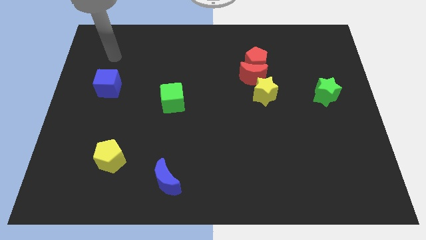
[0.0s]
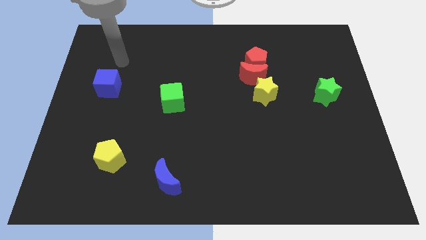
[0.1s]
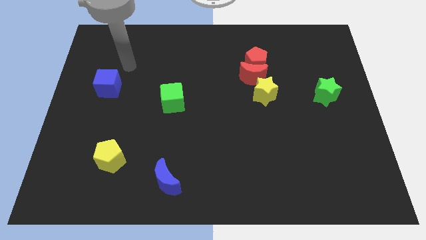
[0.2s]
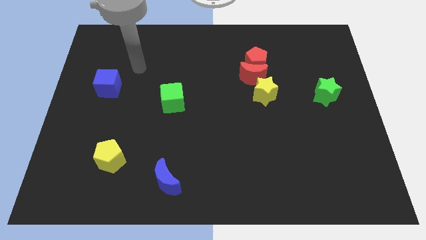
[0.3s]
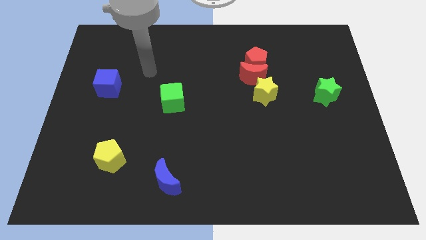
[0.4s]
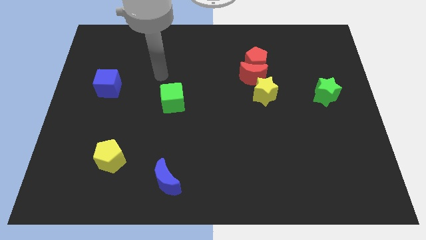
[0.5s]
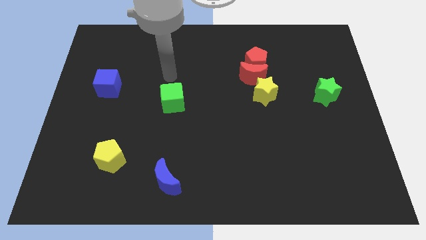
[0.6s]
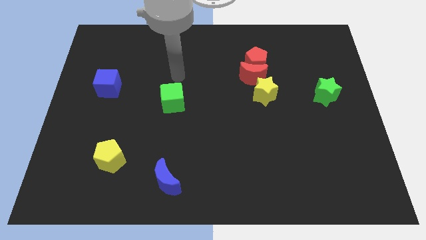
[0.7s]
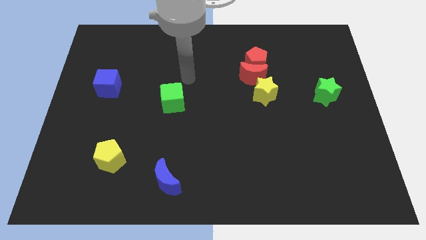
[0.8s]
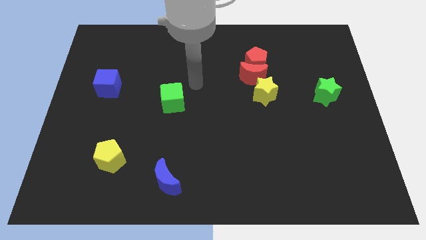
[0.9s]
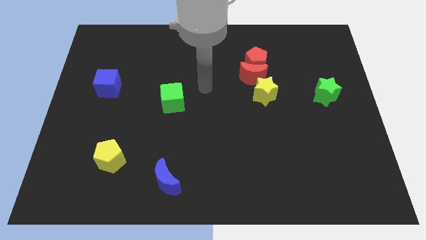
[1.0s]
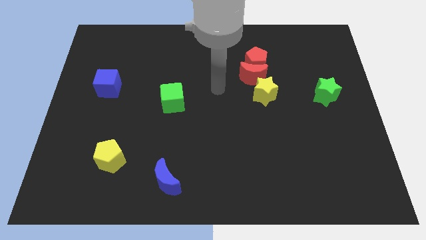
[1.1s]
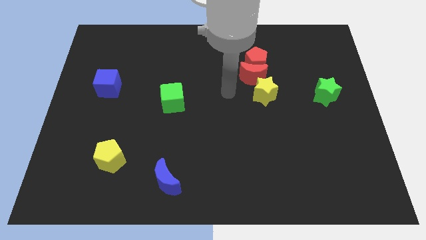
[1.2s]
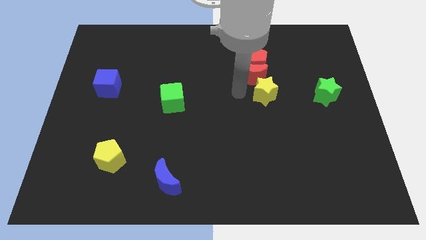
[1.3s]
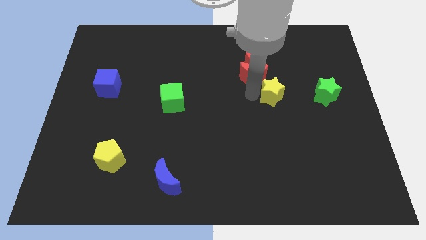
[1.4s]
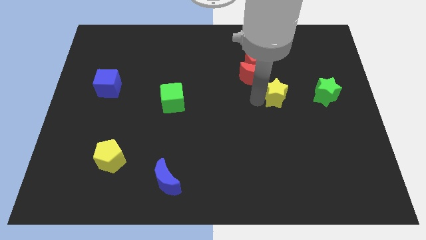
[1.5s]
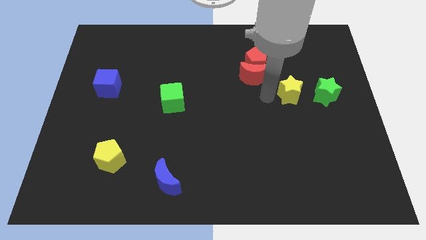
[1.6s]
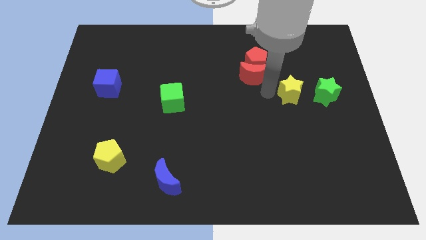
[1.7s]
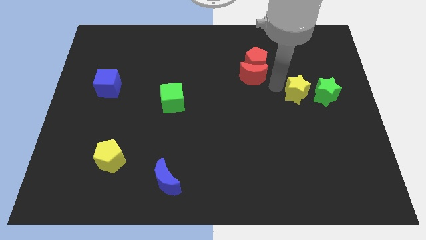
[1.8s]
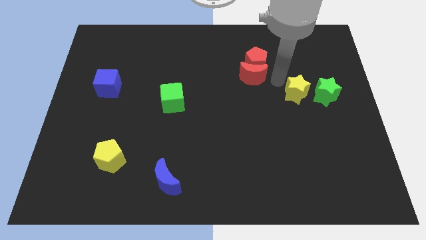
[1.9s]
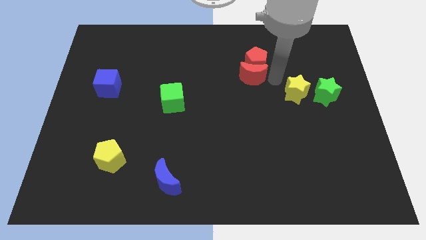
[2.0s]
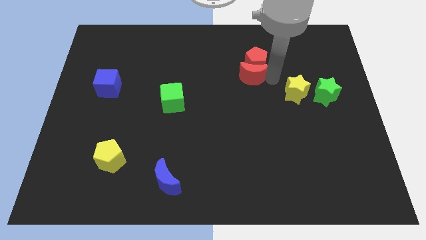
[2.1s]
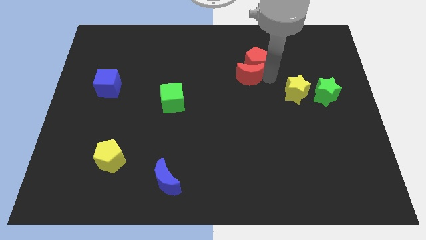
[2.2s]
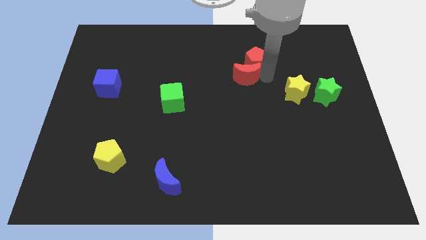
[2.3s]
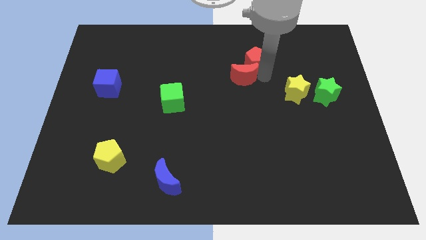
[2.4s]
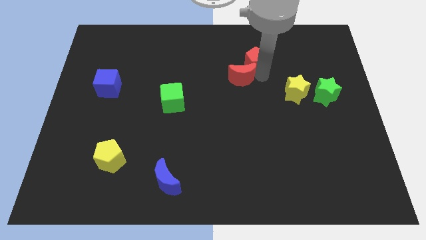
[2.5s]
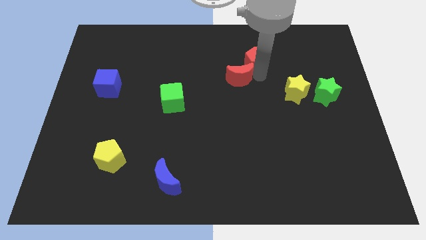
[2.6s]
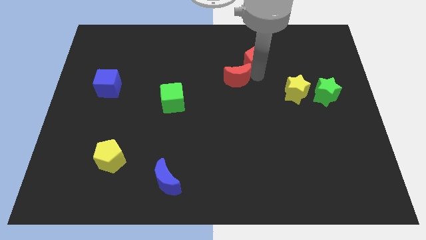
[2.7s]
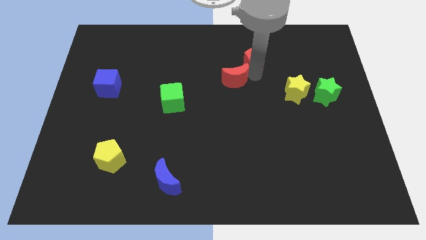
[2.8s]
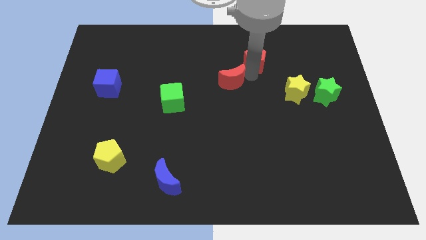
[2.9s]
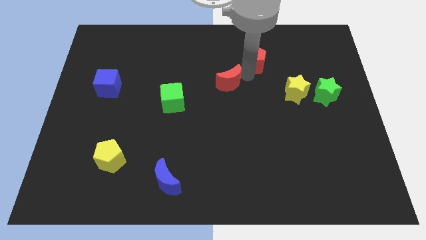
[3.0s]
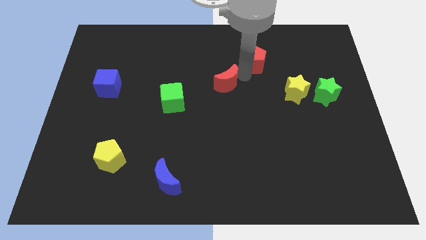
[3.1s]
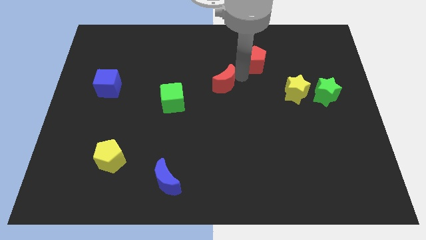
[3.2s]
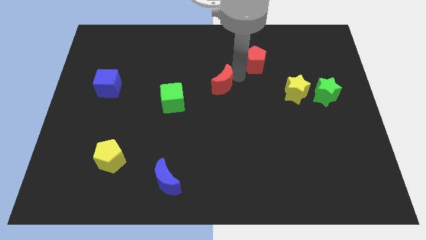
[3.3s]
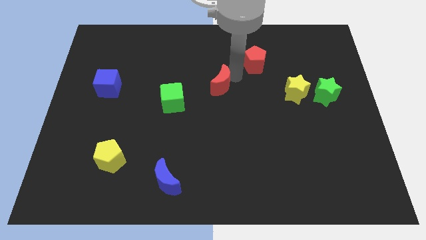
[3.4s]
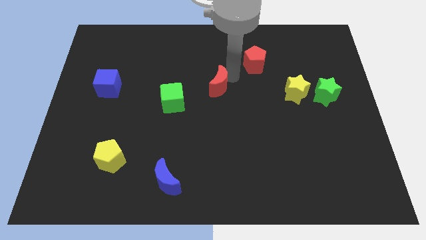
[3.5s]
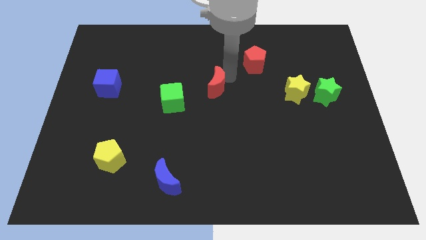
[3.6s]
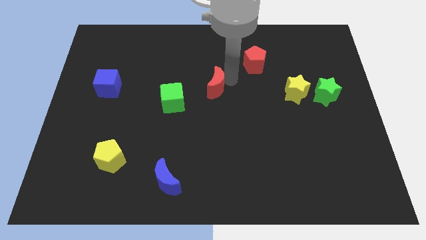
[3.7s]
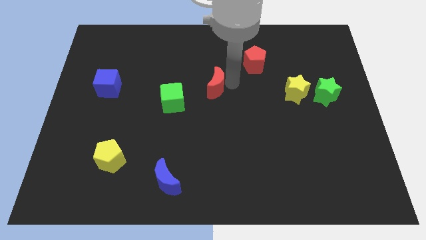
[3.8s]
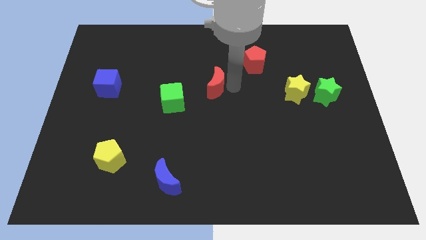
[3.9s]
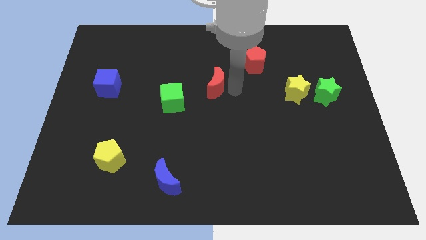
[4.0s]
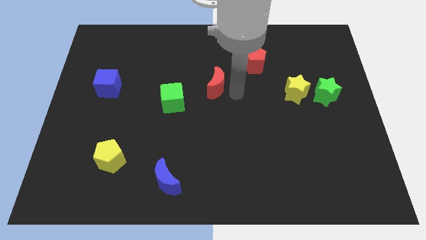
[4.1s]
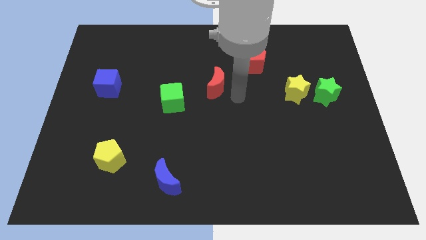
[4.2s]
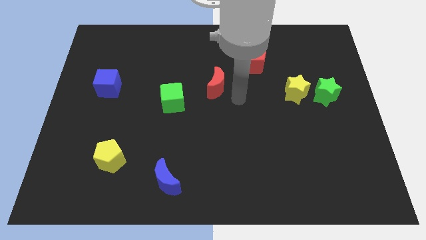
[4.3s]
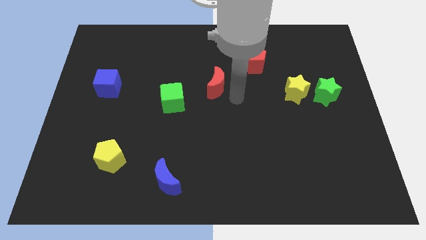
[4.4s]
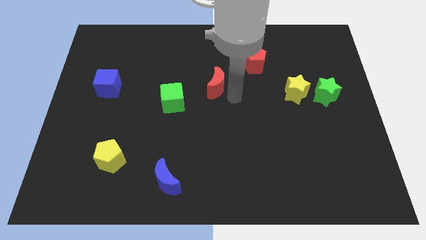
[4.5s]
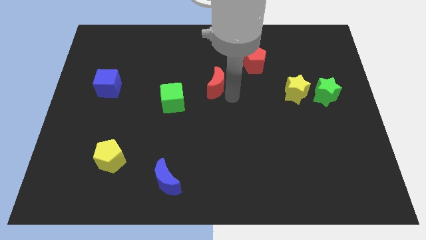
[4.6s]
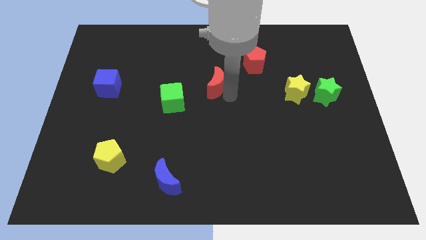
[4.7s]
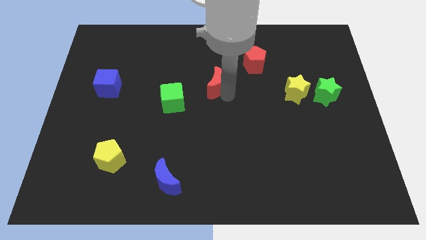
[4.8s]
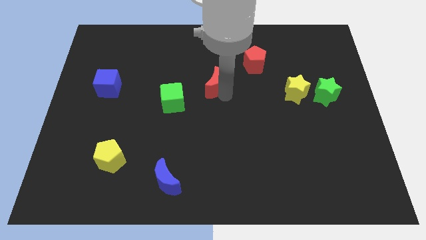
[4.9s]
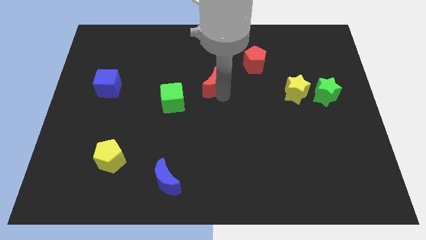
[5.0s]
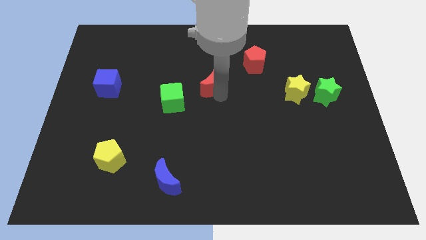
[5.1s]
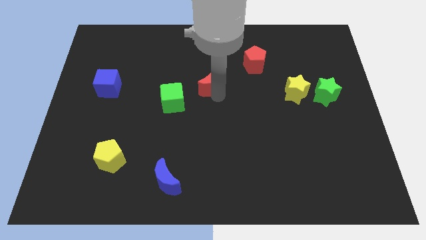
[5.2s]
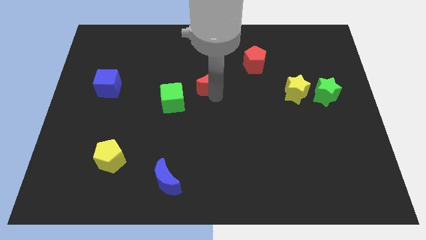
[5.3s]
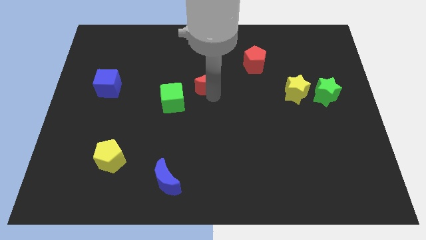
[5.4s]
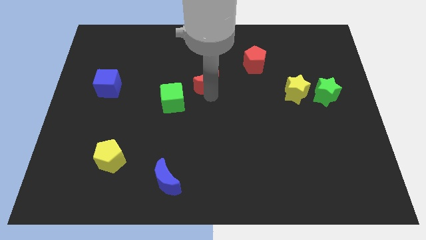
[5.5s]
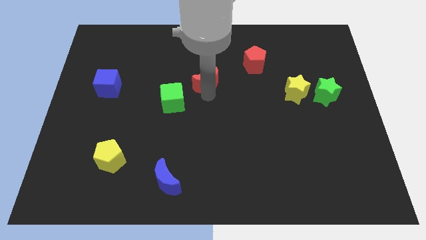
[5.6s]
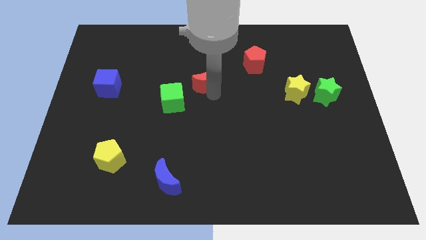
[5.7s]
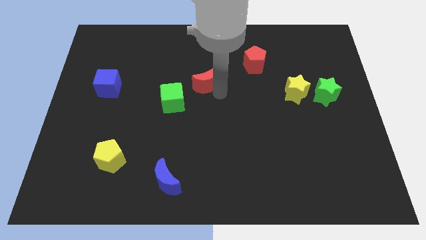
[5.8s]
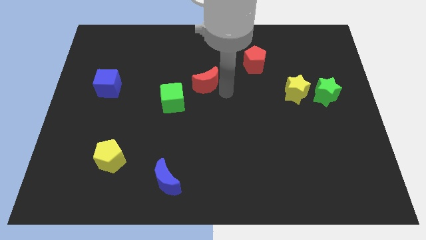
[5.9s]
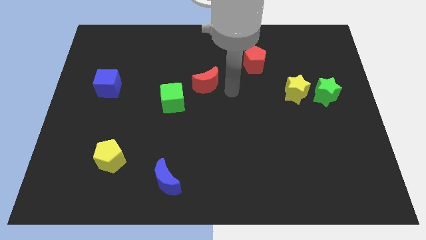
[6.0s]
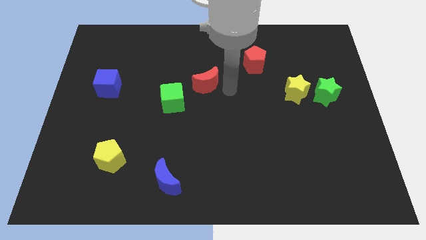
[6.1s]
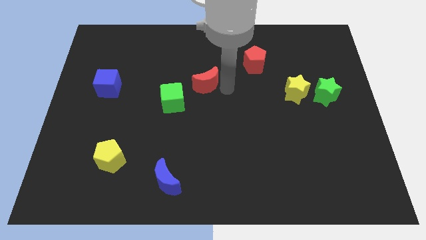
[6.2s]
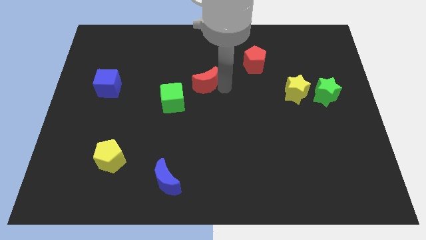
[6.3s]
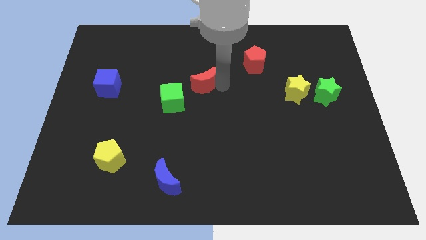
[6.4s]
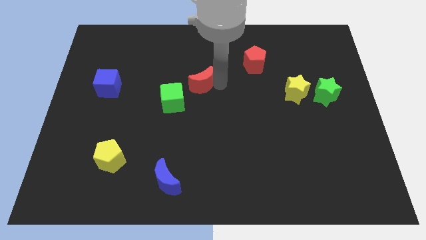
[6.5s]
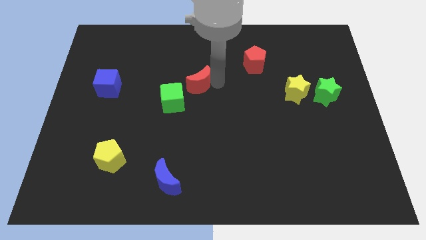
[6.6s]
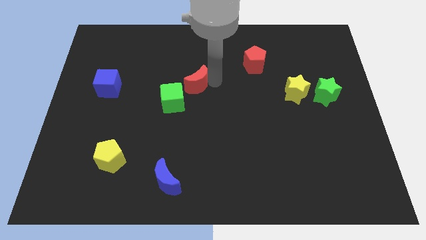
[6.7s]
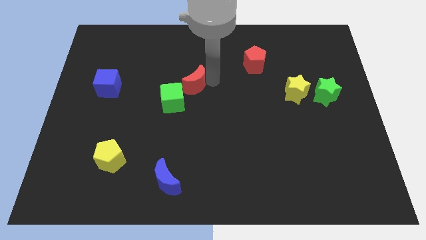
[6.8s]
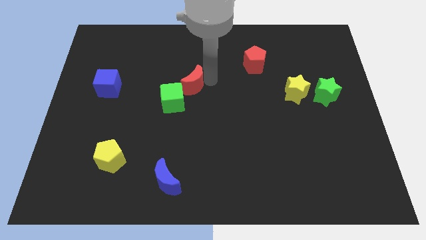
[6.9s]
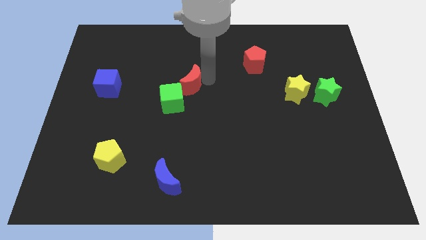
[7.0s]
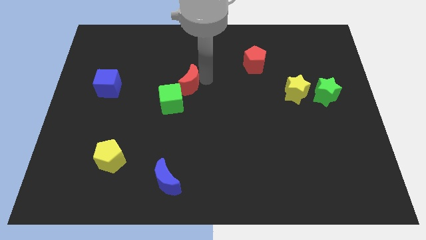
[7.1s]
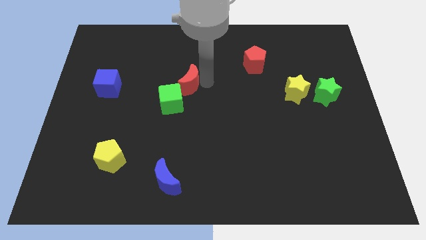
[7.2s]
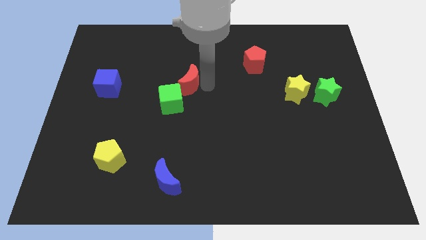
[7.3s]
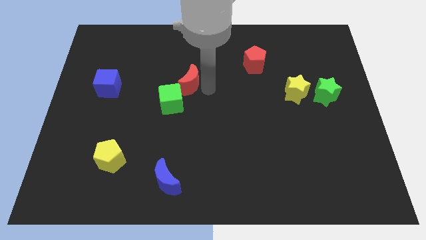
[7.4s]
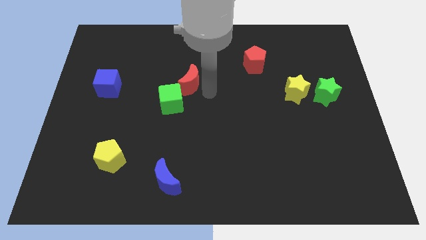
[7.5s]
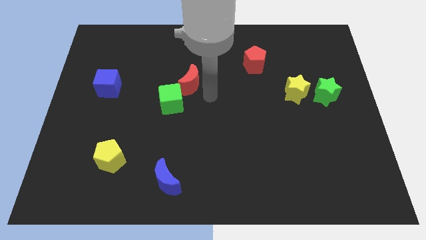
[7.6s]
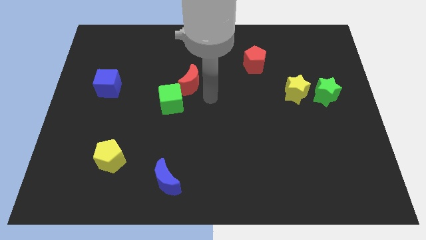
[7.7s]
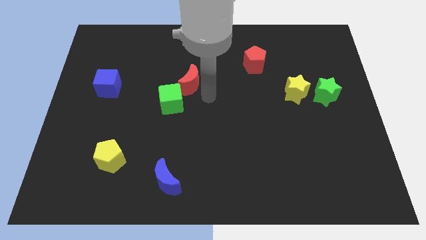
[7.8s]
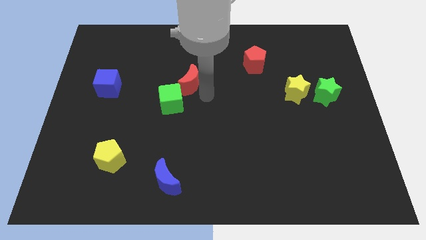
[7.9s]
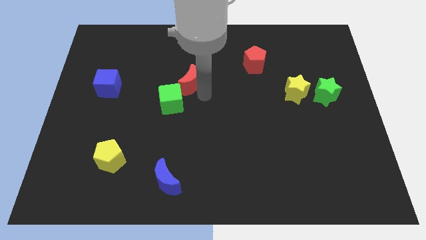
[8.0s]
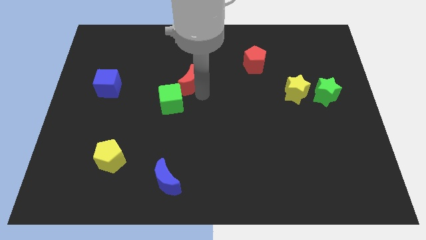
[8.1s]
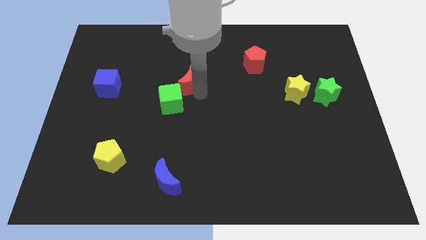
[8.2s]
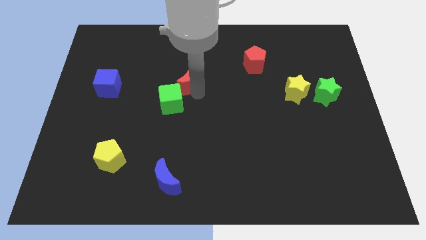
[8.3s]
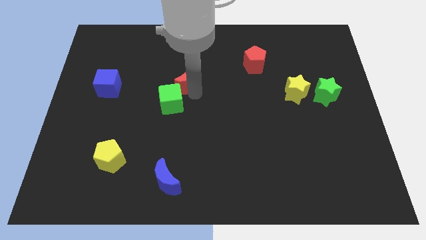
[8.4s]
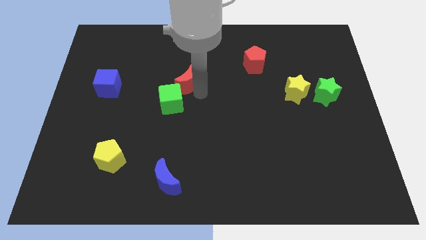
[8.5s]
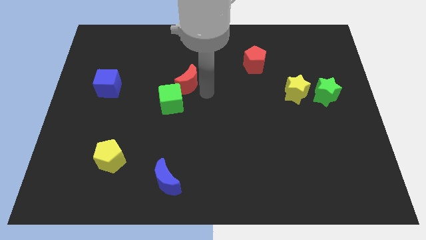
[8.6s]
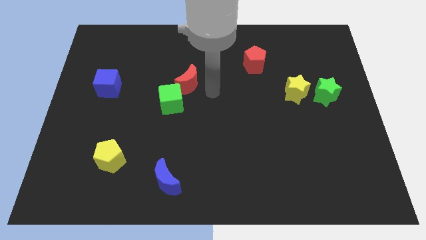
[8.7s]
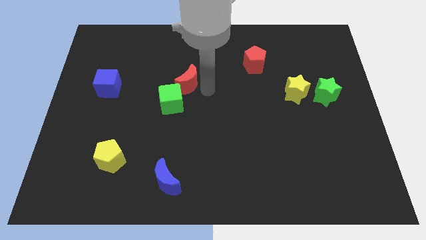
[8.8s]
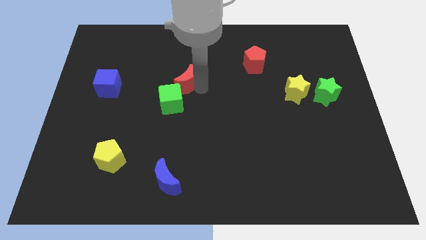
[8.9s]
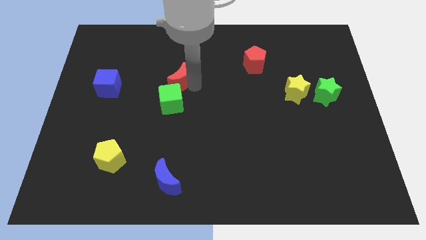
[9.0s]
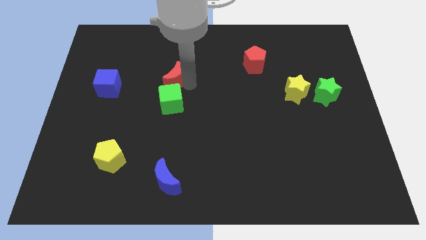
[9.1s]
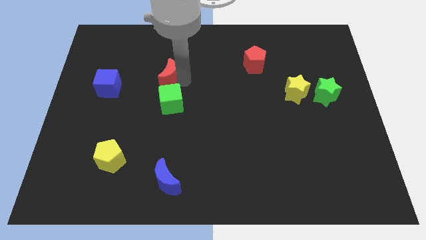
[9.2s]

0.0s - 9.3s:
push the red moon to the top left of the green cube
